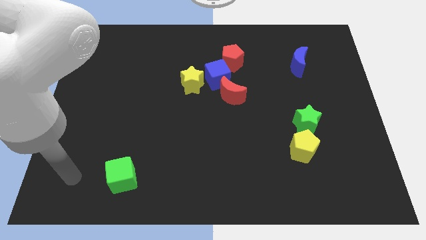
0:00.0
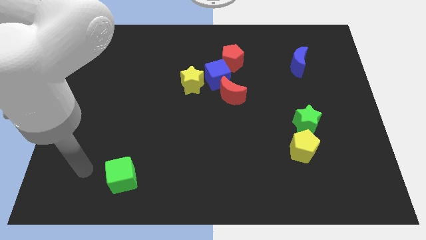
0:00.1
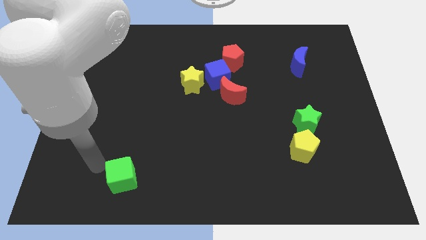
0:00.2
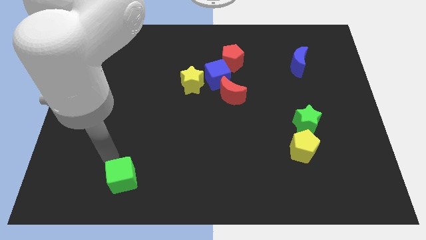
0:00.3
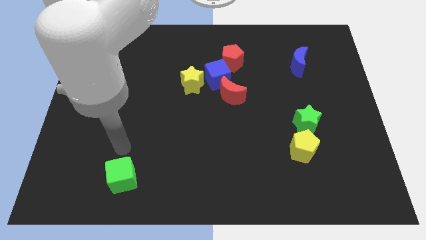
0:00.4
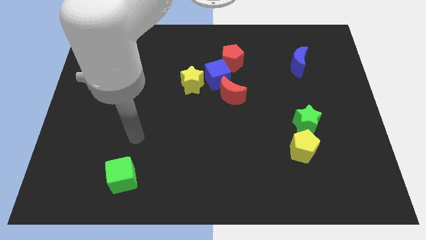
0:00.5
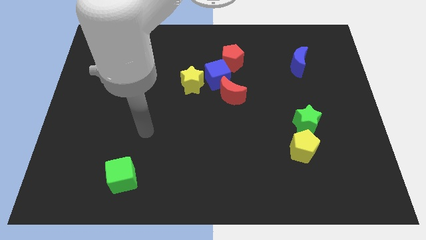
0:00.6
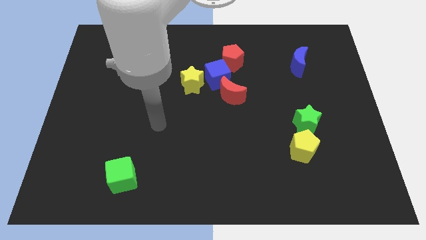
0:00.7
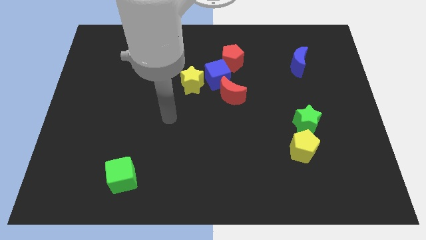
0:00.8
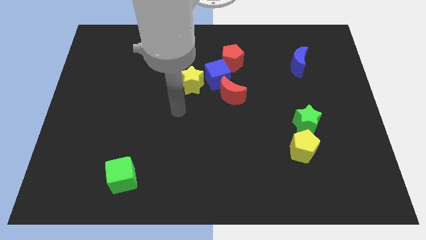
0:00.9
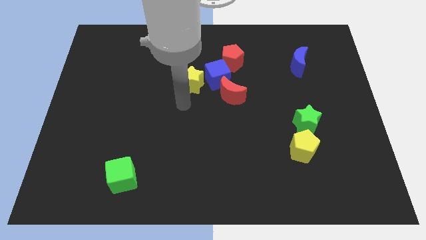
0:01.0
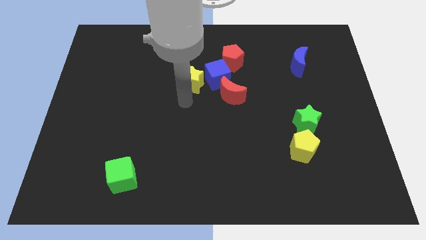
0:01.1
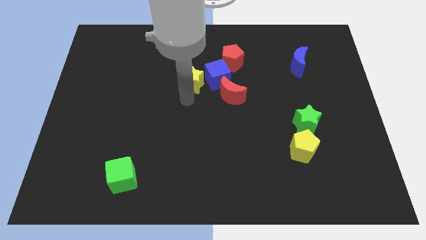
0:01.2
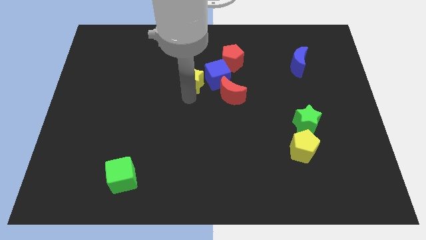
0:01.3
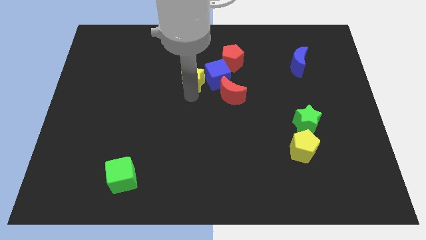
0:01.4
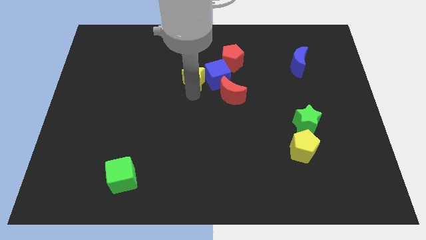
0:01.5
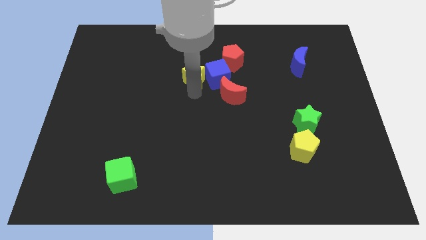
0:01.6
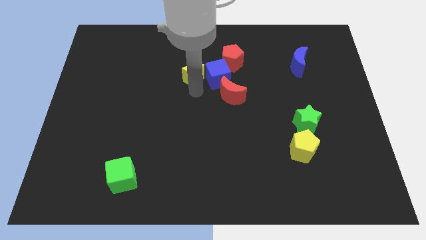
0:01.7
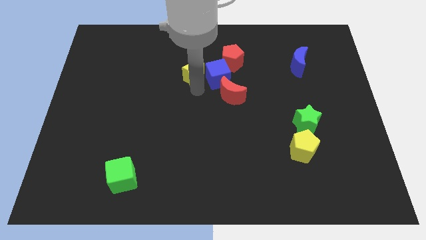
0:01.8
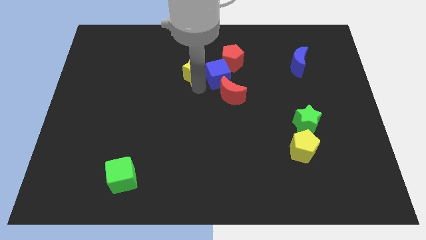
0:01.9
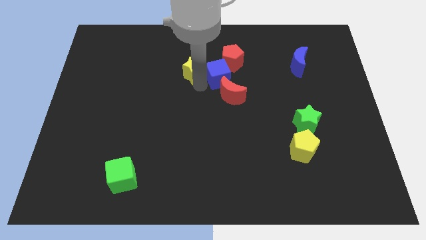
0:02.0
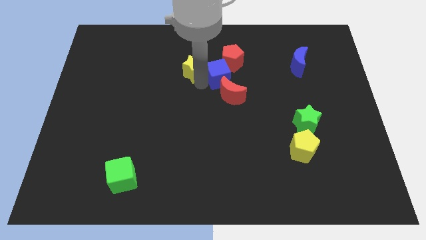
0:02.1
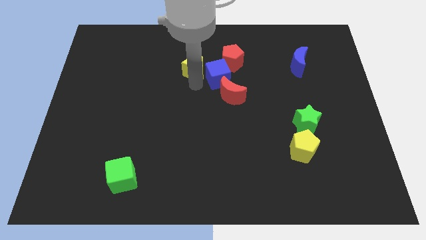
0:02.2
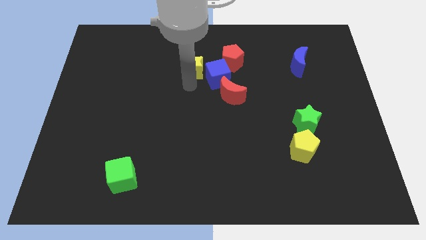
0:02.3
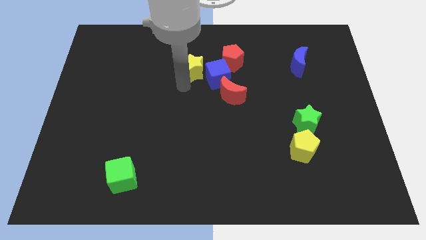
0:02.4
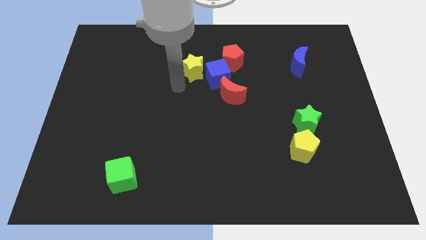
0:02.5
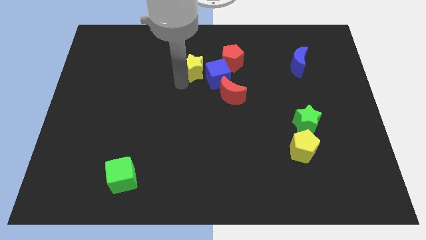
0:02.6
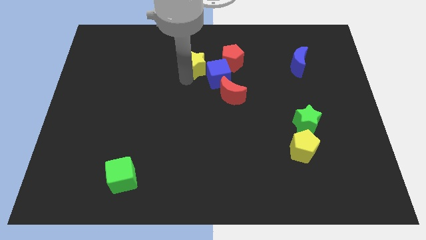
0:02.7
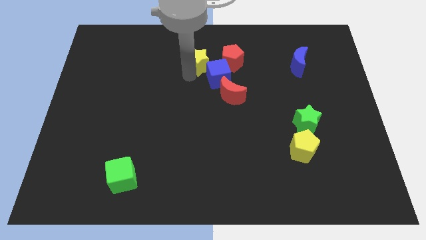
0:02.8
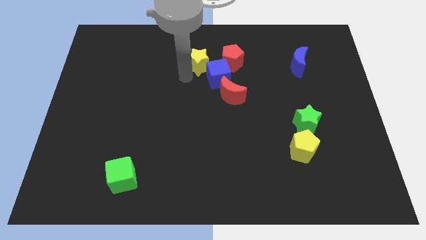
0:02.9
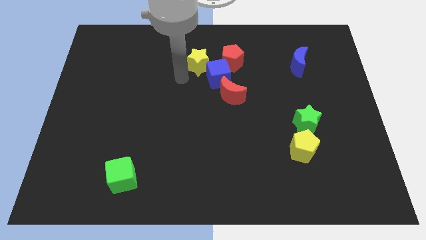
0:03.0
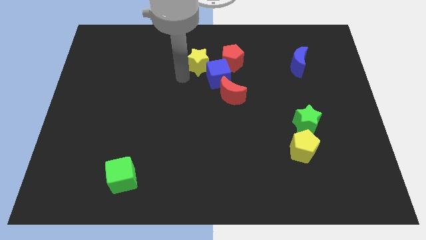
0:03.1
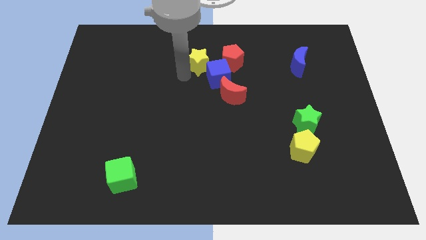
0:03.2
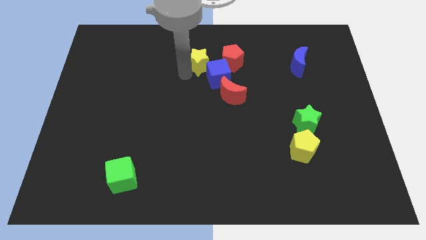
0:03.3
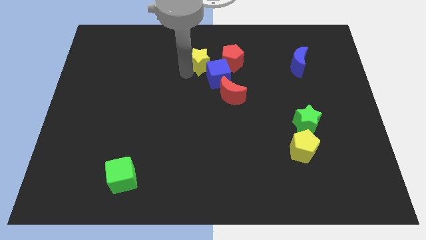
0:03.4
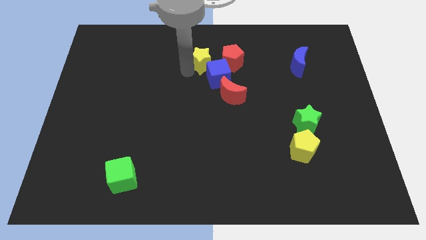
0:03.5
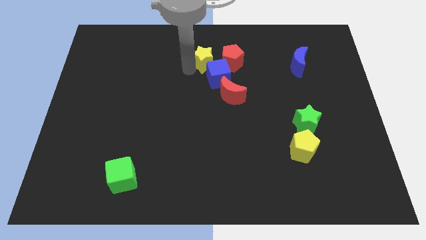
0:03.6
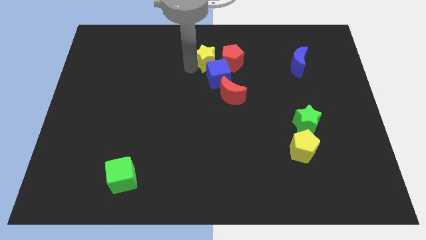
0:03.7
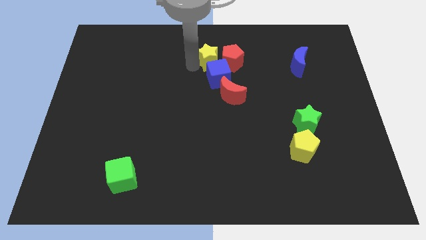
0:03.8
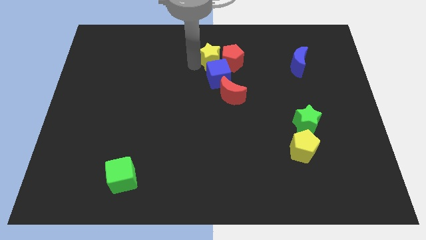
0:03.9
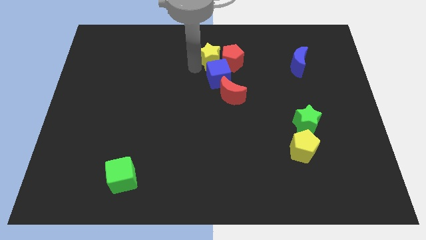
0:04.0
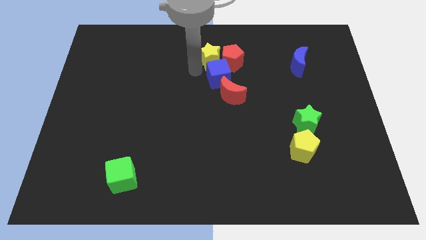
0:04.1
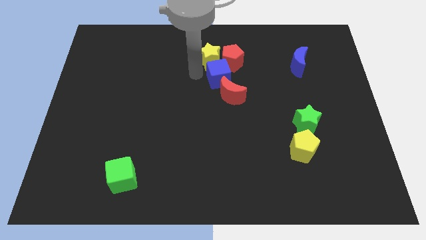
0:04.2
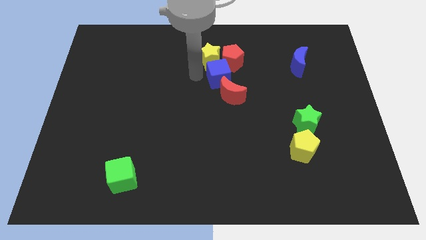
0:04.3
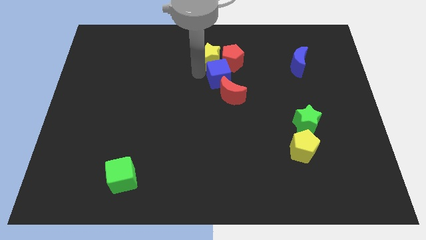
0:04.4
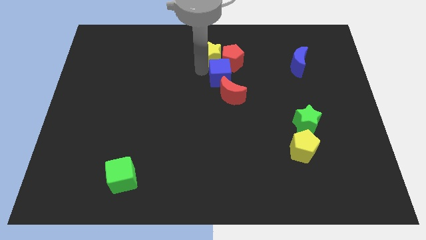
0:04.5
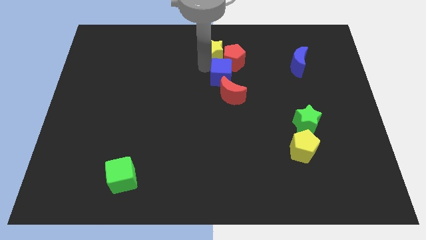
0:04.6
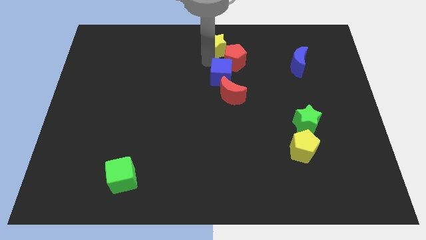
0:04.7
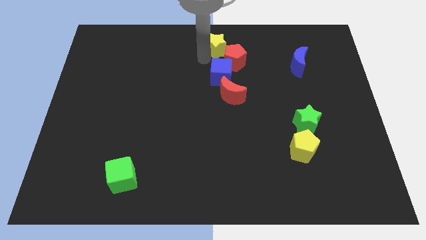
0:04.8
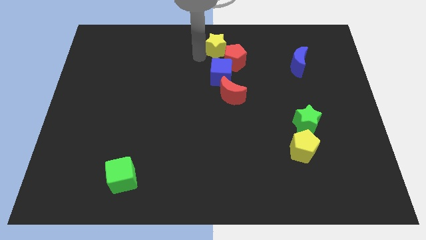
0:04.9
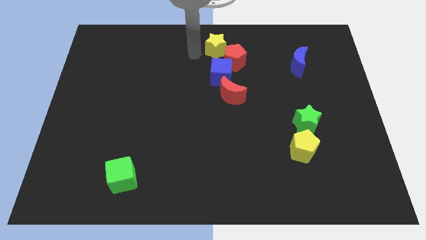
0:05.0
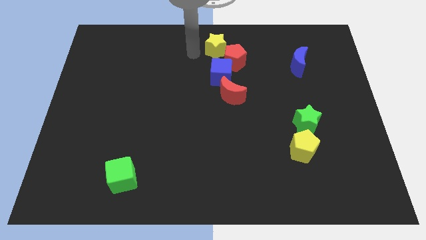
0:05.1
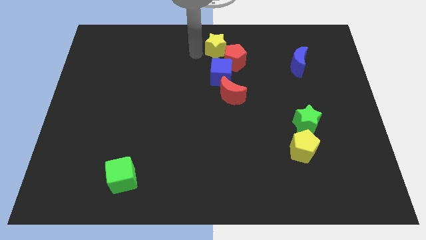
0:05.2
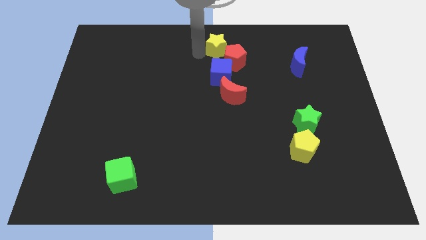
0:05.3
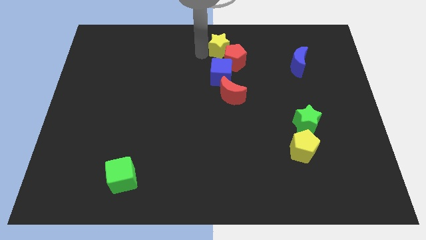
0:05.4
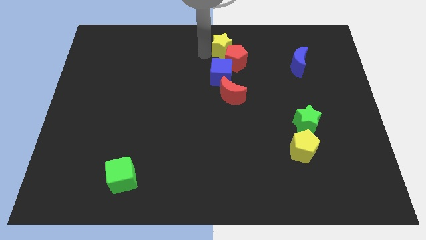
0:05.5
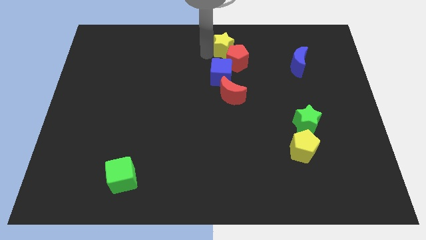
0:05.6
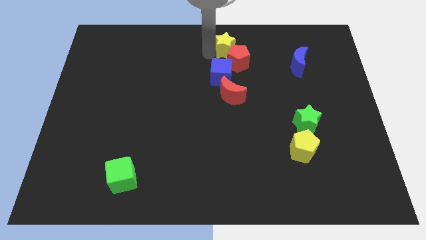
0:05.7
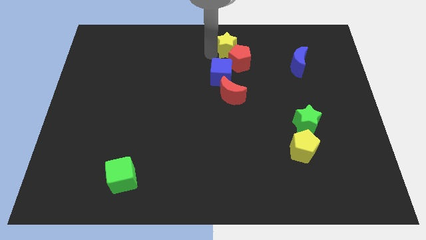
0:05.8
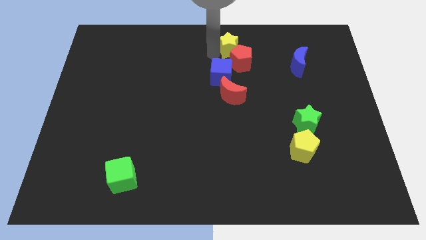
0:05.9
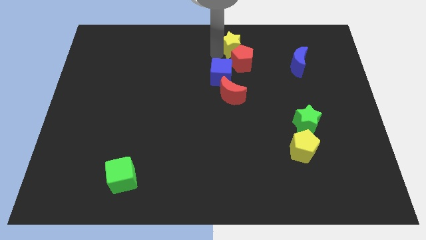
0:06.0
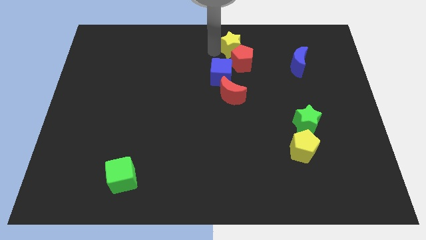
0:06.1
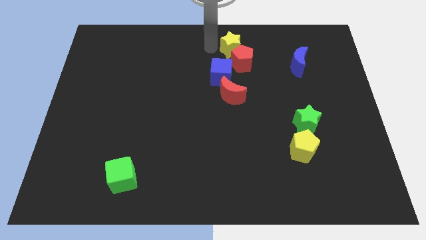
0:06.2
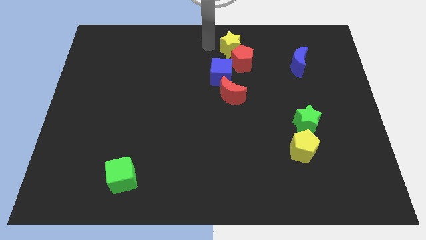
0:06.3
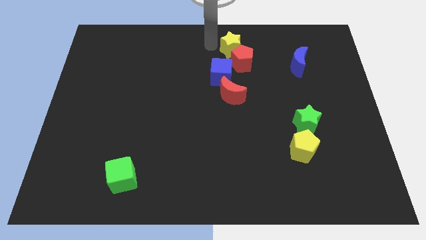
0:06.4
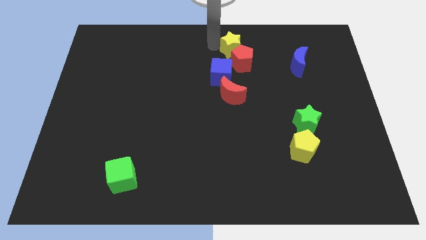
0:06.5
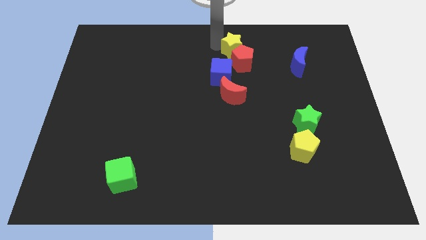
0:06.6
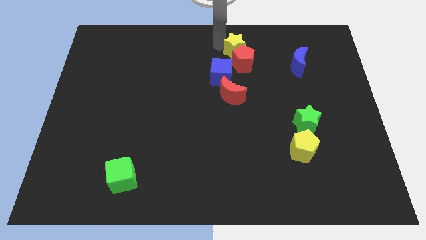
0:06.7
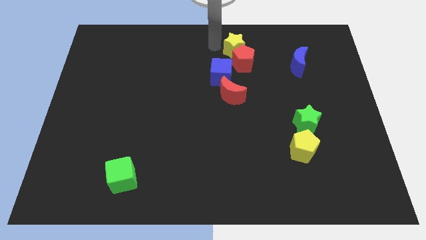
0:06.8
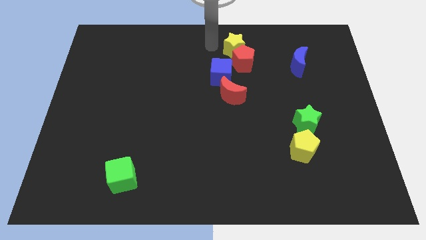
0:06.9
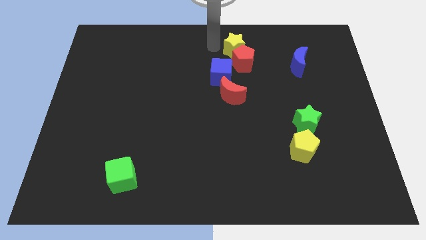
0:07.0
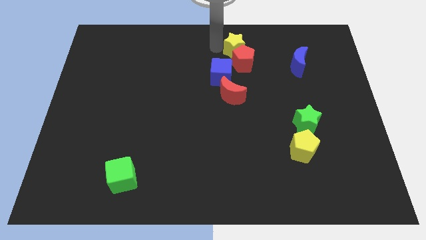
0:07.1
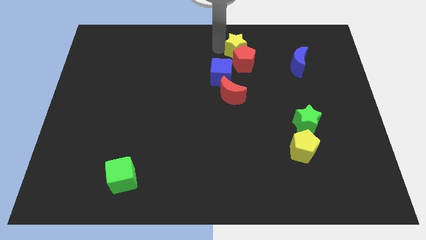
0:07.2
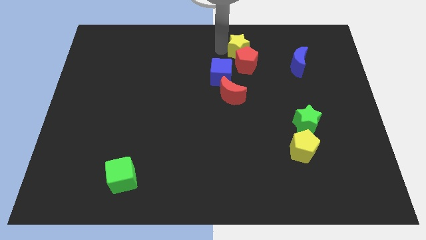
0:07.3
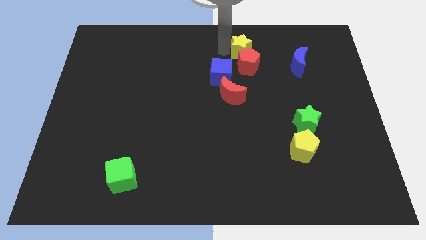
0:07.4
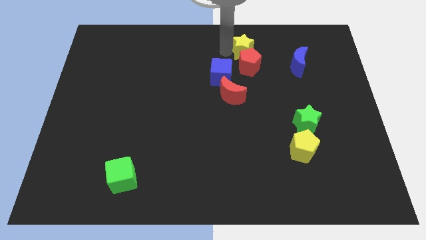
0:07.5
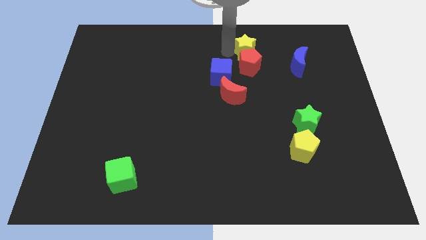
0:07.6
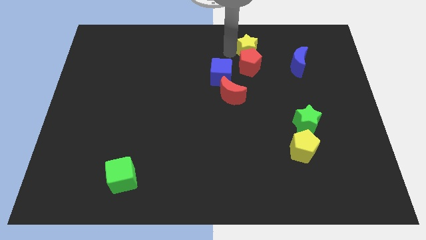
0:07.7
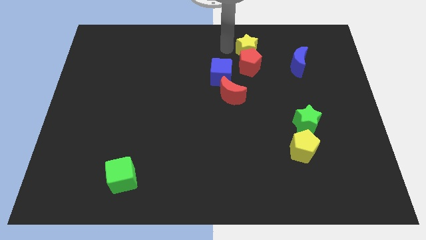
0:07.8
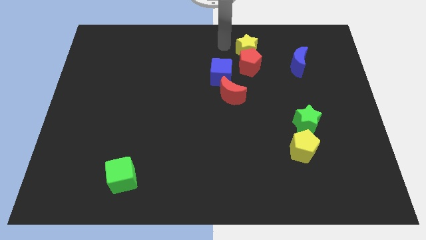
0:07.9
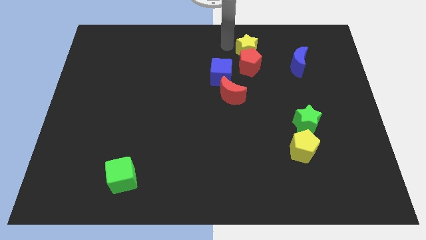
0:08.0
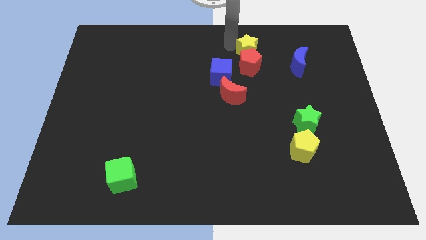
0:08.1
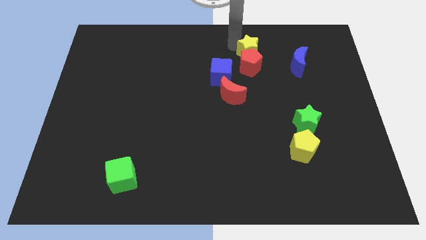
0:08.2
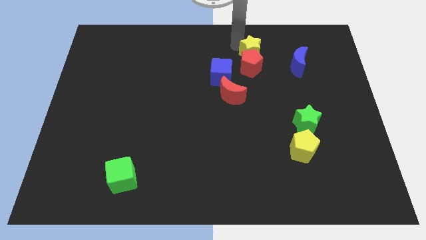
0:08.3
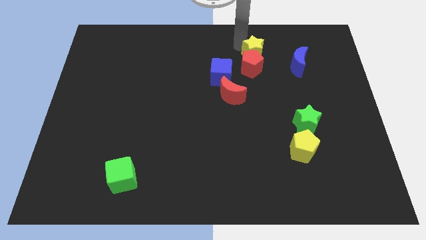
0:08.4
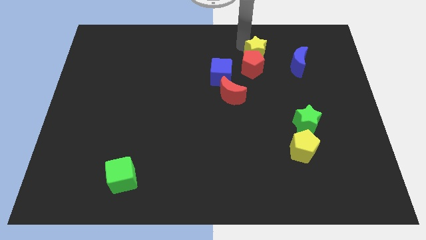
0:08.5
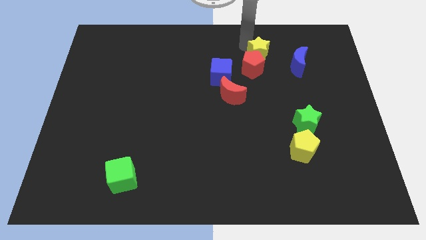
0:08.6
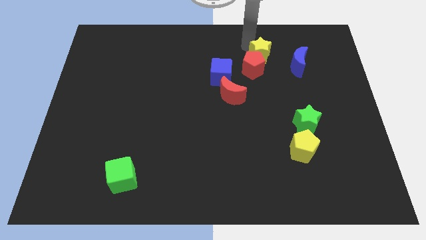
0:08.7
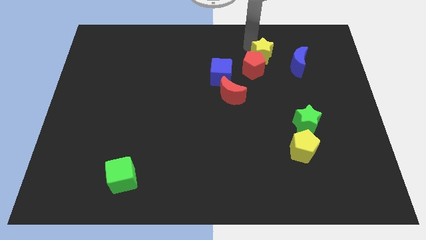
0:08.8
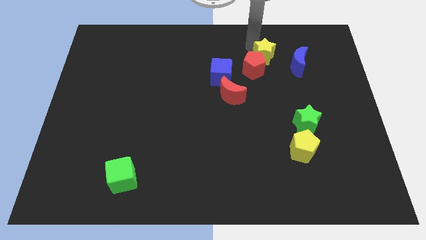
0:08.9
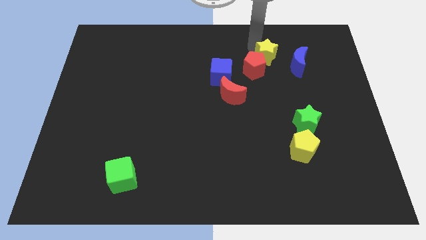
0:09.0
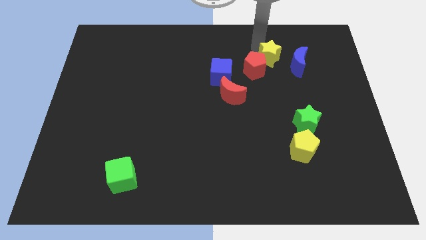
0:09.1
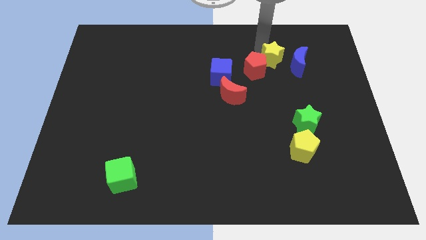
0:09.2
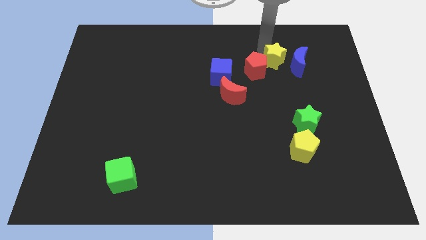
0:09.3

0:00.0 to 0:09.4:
move the yellow star towards the blue moon
